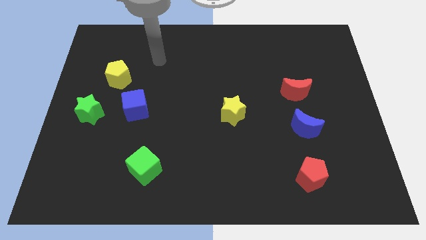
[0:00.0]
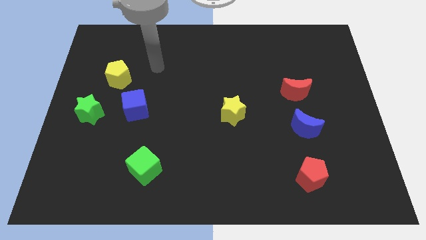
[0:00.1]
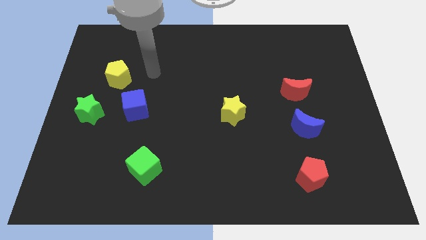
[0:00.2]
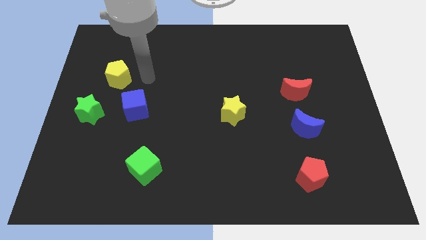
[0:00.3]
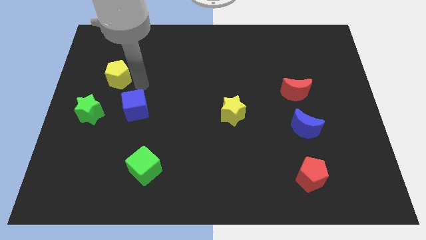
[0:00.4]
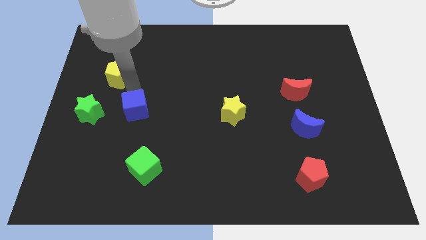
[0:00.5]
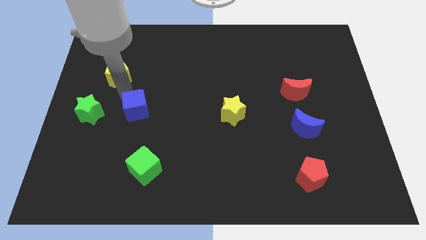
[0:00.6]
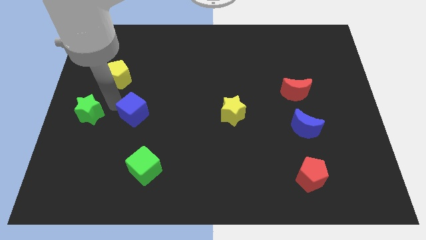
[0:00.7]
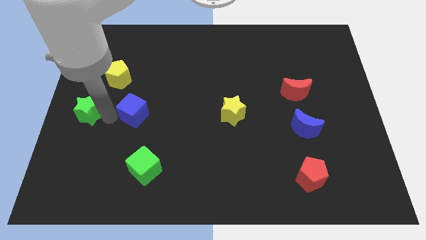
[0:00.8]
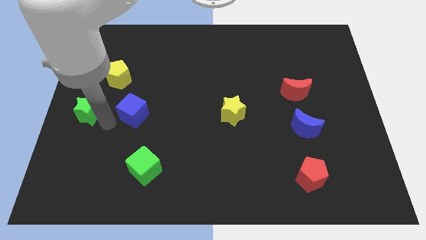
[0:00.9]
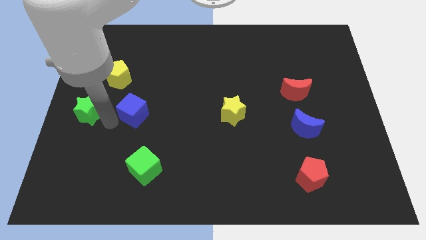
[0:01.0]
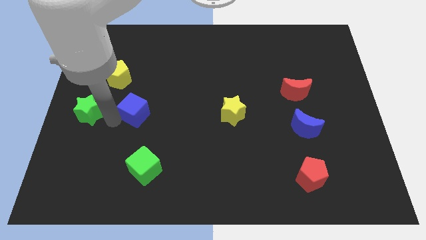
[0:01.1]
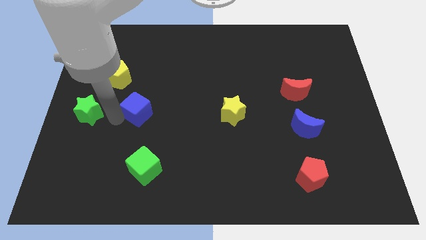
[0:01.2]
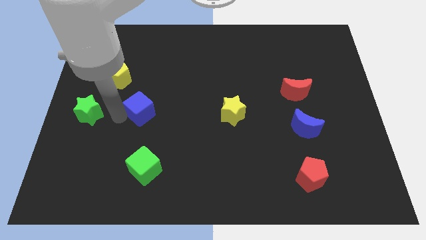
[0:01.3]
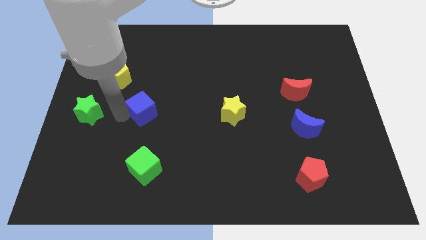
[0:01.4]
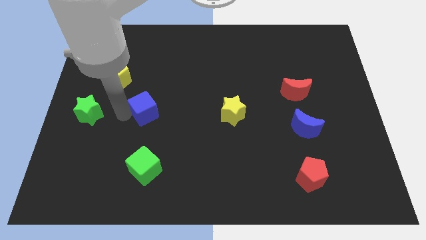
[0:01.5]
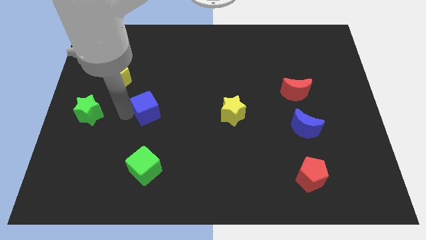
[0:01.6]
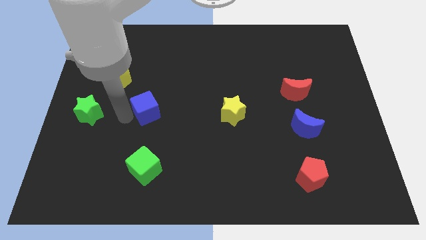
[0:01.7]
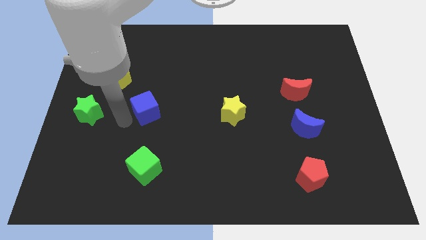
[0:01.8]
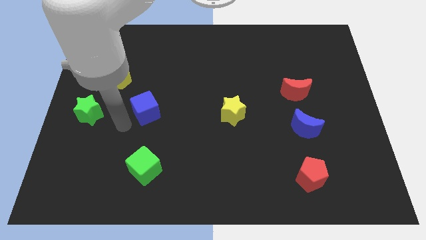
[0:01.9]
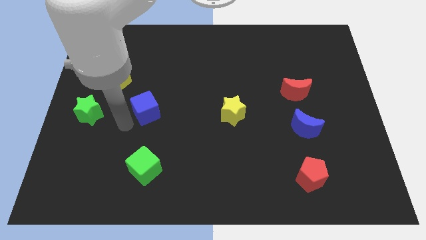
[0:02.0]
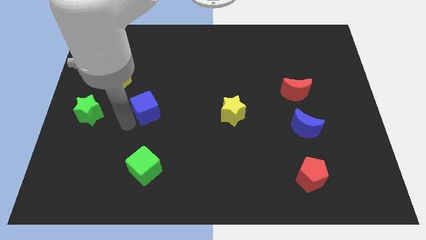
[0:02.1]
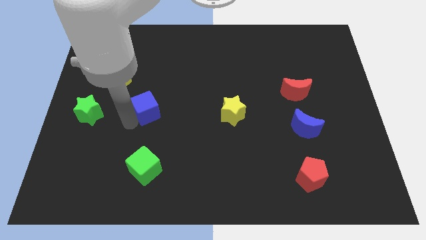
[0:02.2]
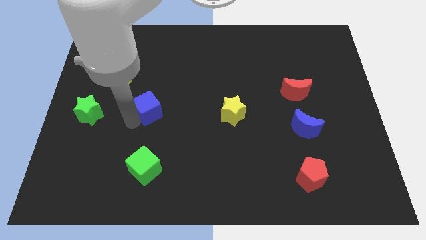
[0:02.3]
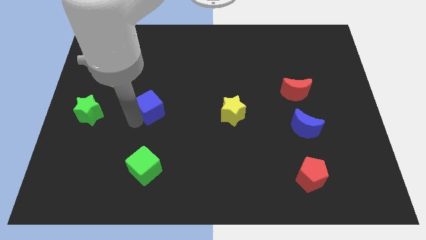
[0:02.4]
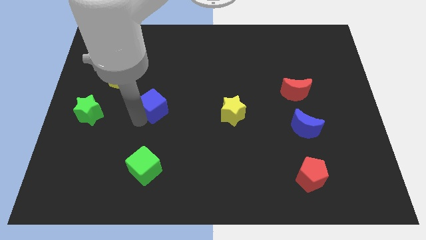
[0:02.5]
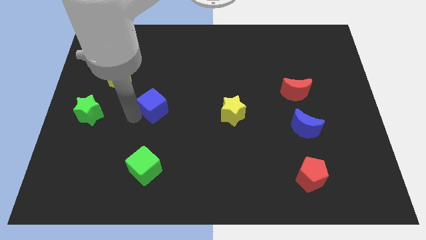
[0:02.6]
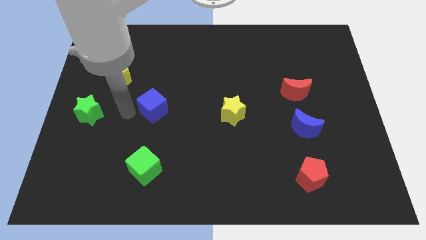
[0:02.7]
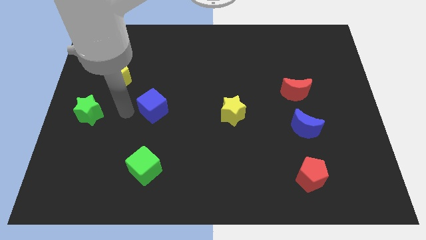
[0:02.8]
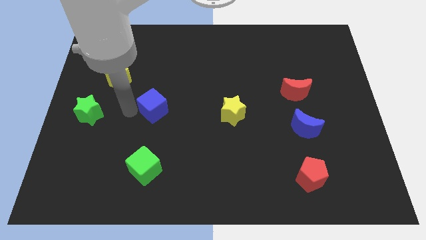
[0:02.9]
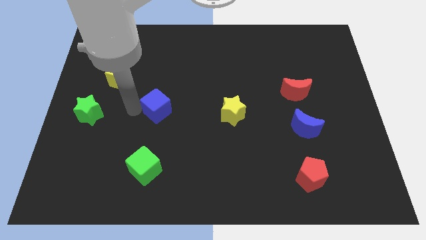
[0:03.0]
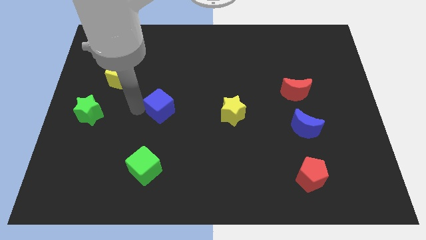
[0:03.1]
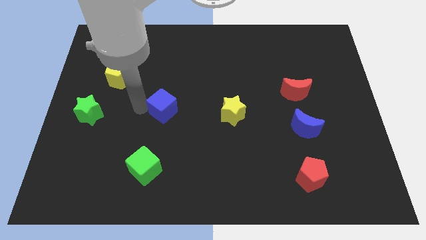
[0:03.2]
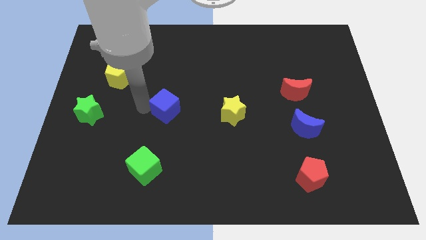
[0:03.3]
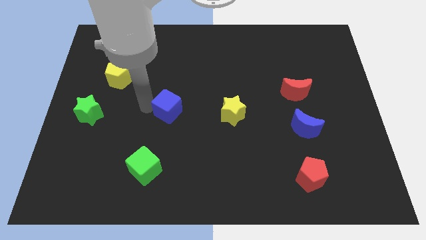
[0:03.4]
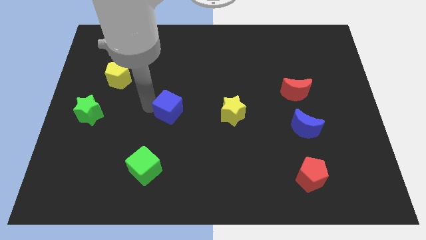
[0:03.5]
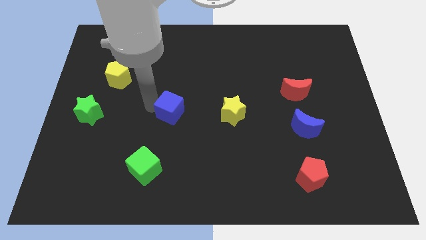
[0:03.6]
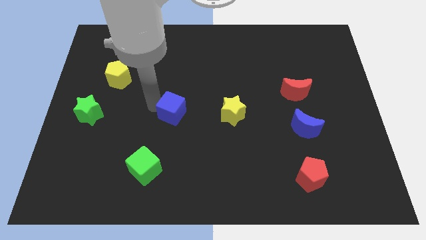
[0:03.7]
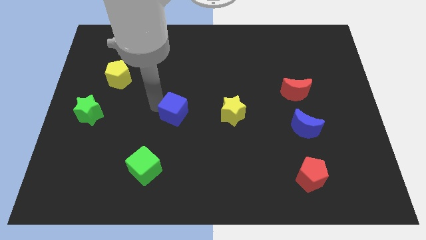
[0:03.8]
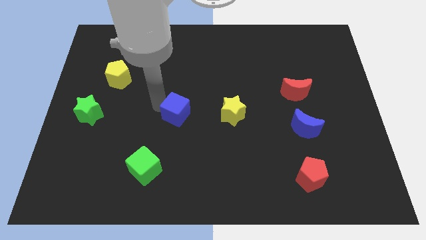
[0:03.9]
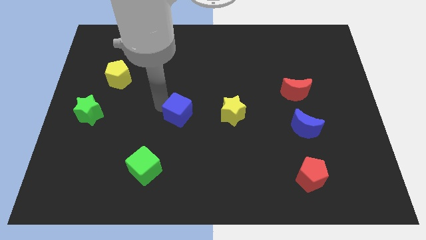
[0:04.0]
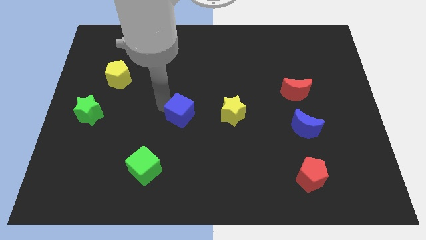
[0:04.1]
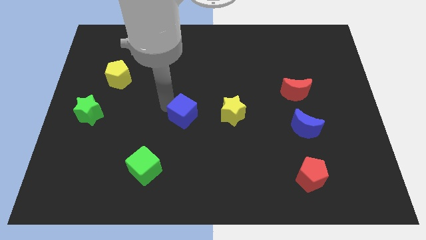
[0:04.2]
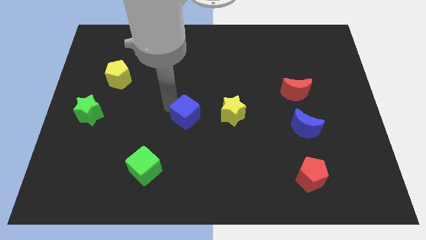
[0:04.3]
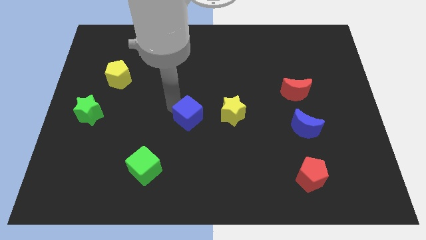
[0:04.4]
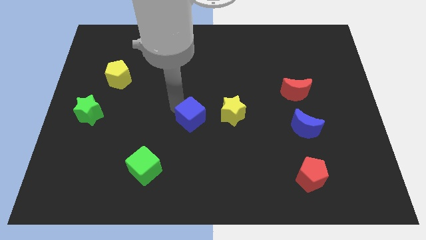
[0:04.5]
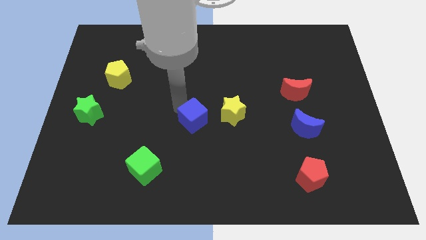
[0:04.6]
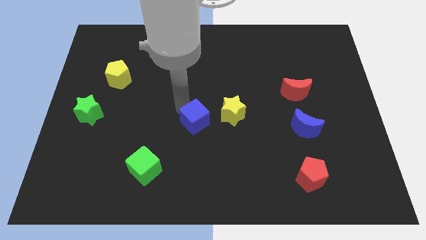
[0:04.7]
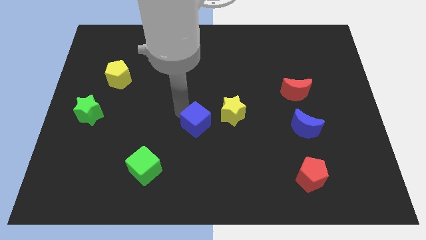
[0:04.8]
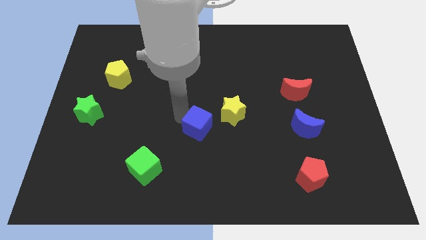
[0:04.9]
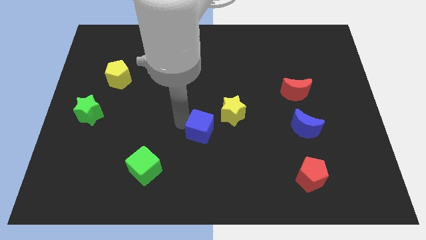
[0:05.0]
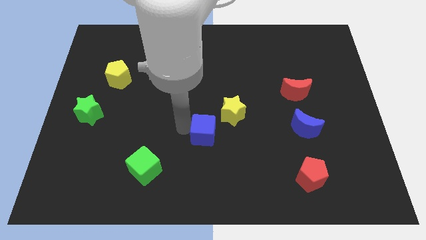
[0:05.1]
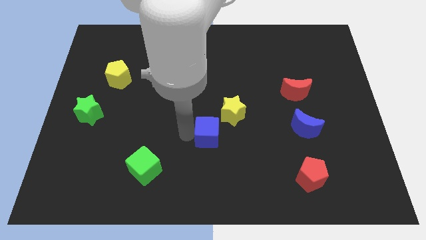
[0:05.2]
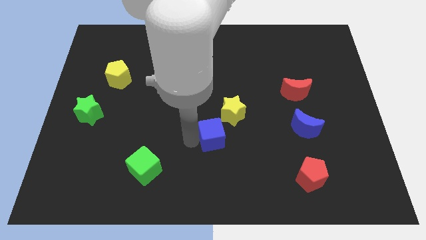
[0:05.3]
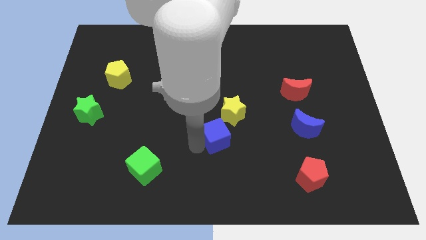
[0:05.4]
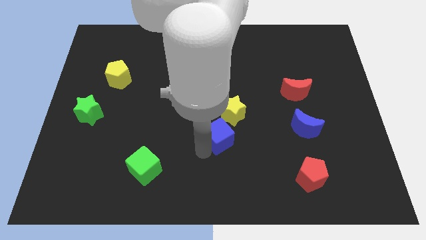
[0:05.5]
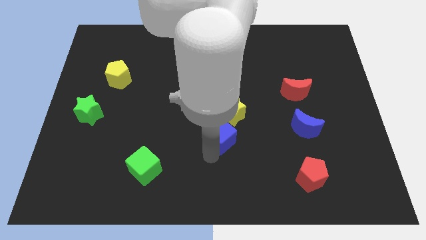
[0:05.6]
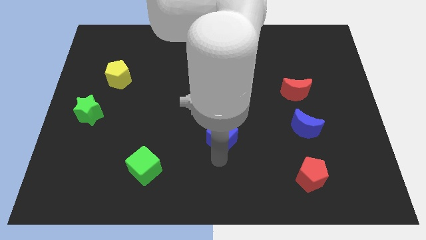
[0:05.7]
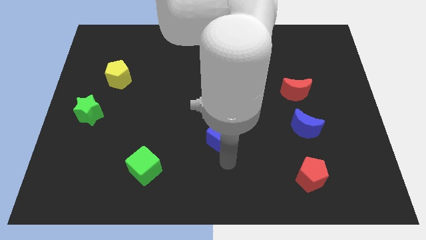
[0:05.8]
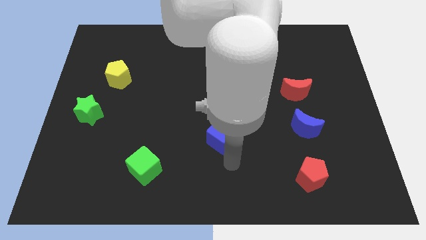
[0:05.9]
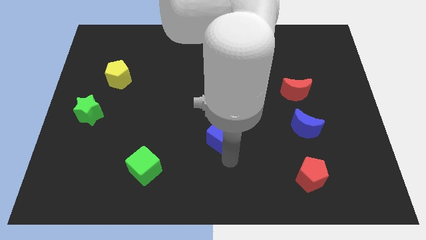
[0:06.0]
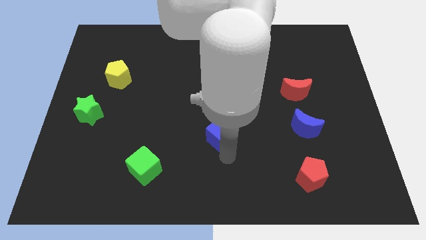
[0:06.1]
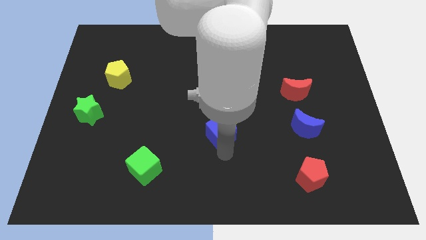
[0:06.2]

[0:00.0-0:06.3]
move the blue cube to the yellow star

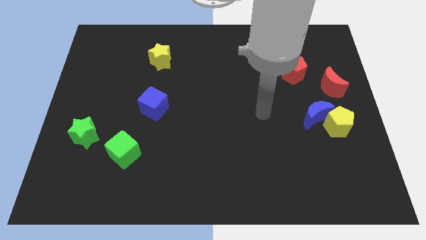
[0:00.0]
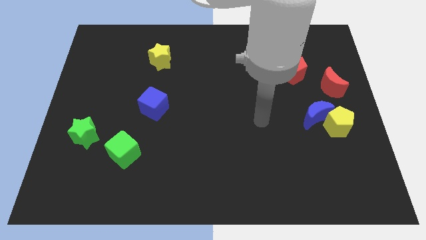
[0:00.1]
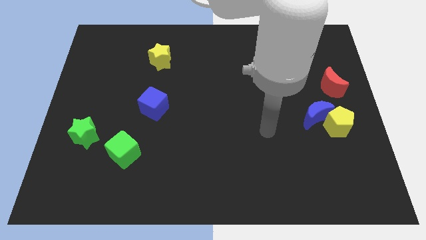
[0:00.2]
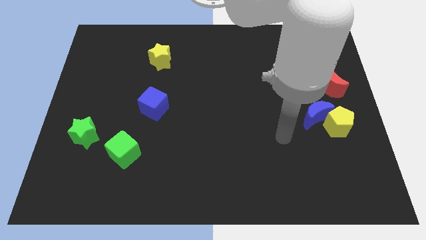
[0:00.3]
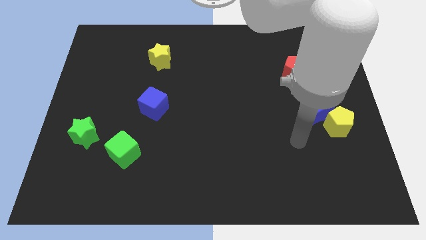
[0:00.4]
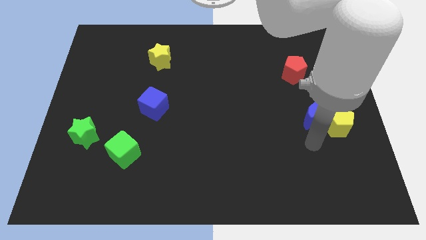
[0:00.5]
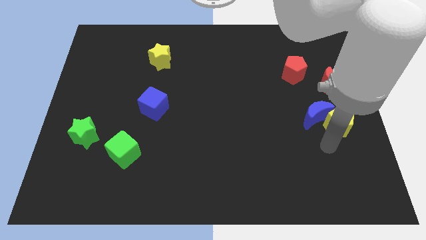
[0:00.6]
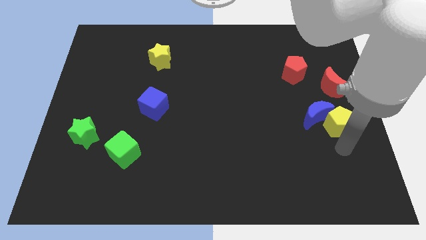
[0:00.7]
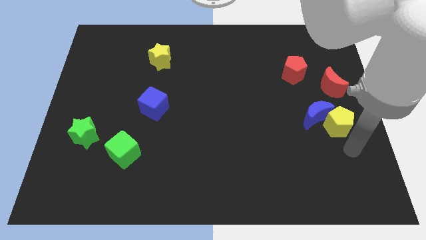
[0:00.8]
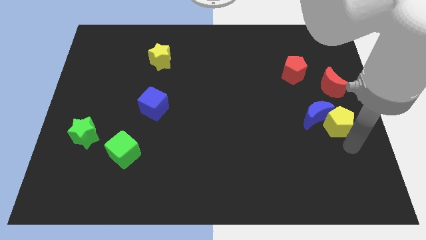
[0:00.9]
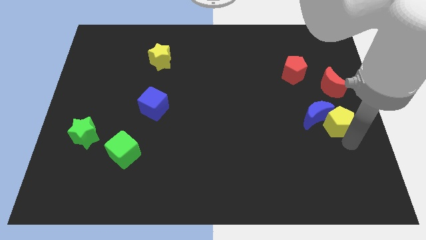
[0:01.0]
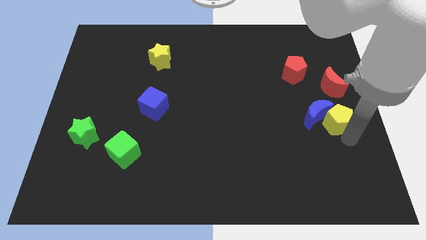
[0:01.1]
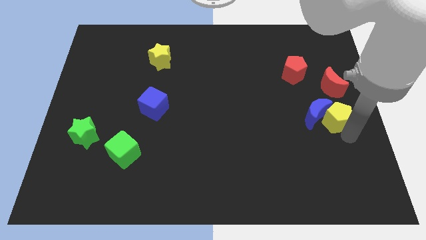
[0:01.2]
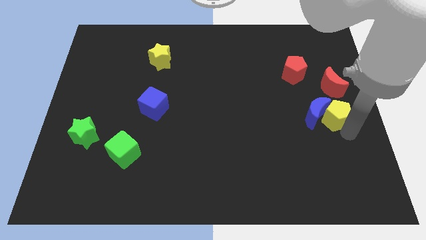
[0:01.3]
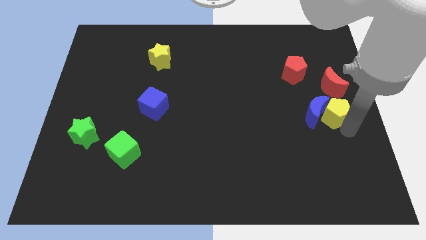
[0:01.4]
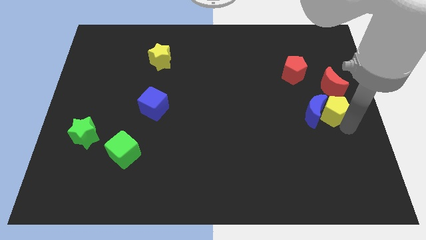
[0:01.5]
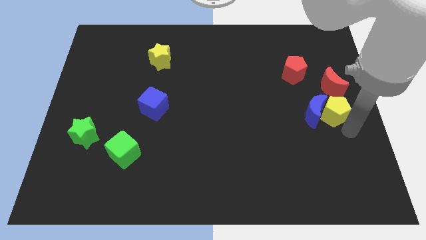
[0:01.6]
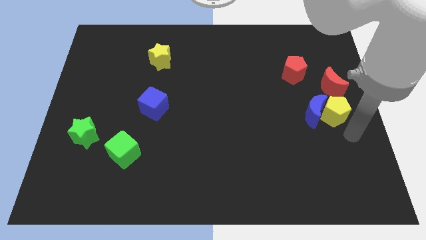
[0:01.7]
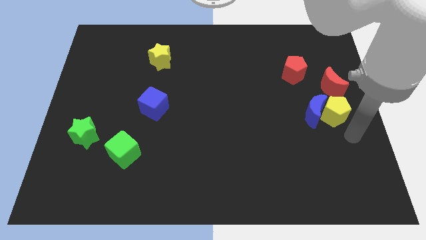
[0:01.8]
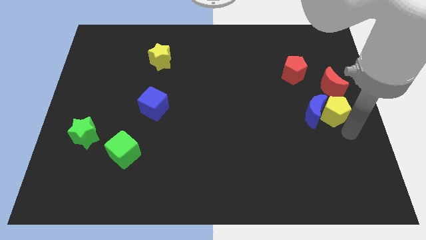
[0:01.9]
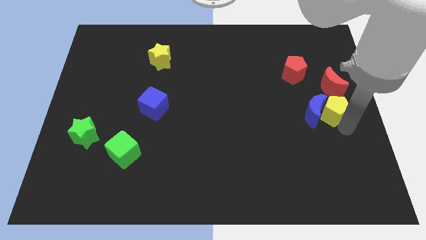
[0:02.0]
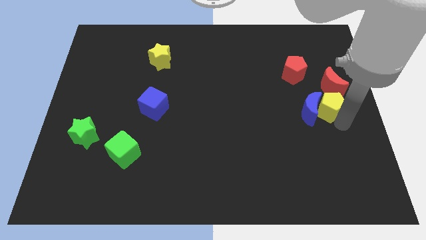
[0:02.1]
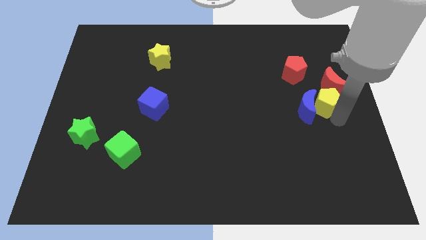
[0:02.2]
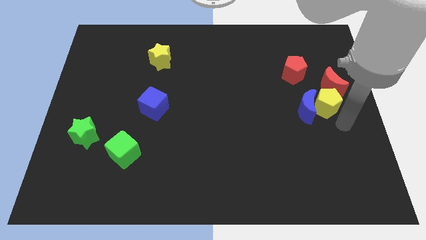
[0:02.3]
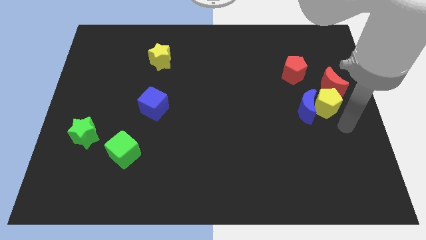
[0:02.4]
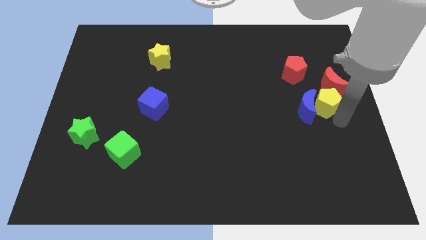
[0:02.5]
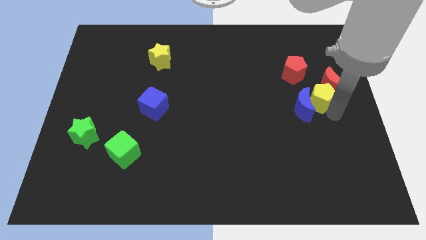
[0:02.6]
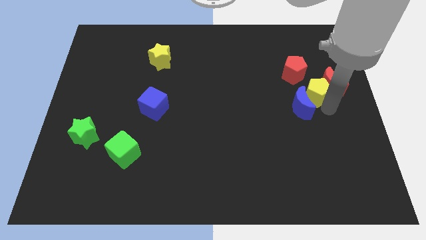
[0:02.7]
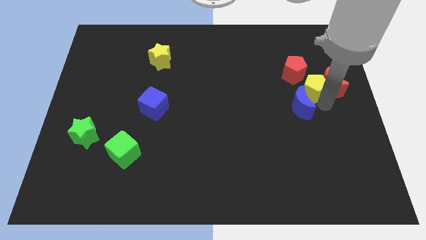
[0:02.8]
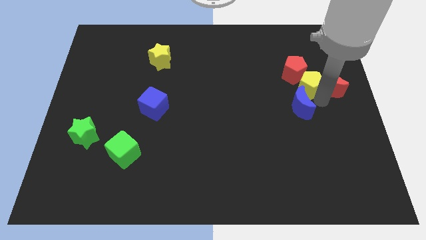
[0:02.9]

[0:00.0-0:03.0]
push the yellow pentagon towards the red pentagon
